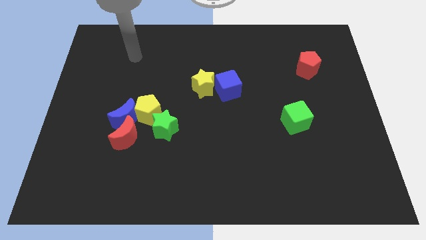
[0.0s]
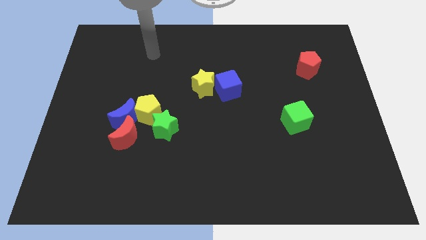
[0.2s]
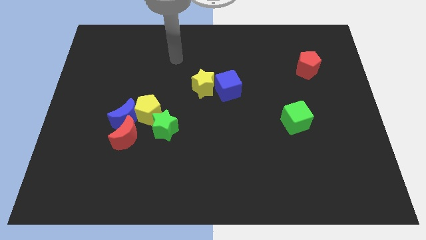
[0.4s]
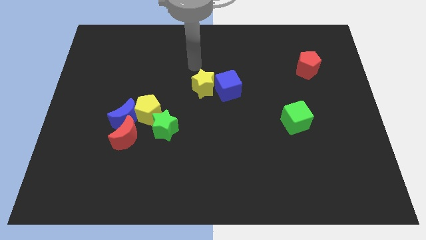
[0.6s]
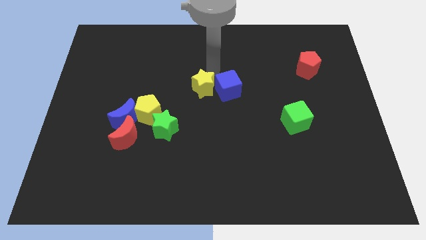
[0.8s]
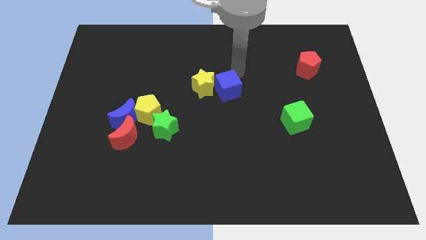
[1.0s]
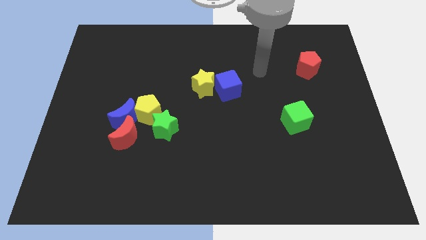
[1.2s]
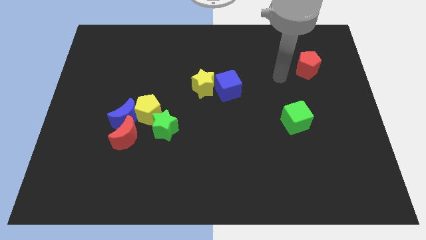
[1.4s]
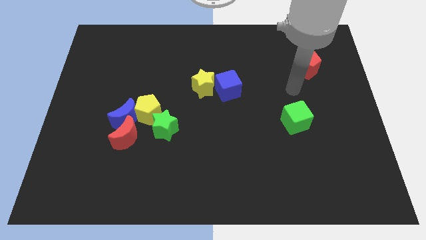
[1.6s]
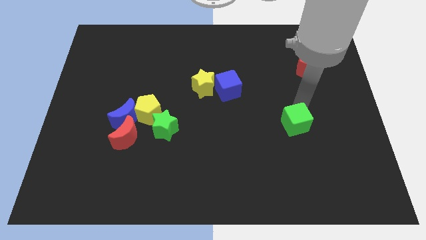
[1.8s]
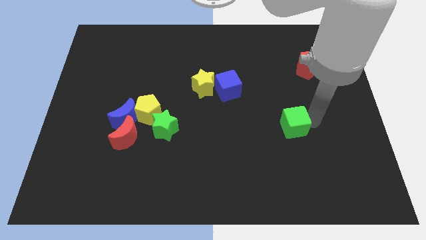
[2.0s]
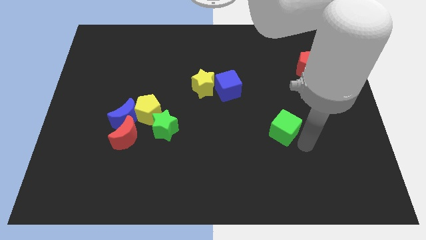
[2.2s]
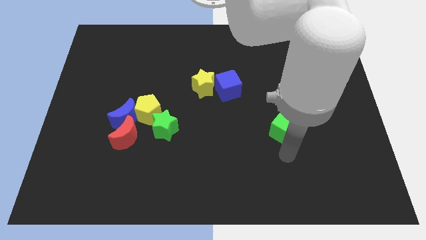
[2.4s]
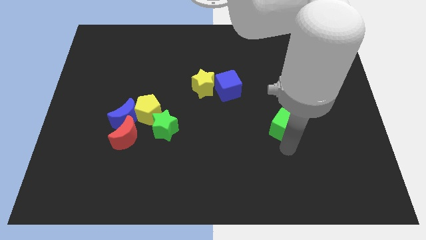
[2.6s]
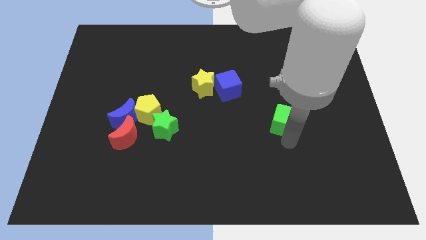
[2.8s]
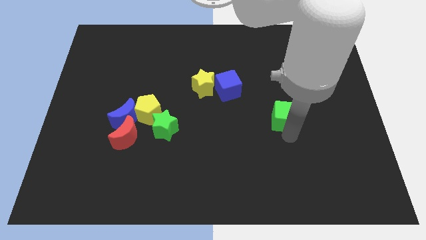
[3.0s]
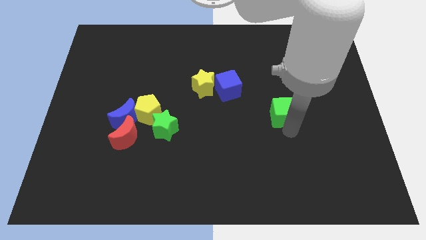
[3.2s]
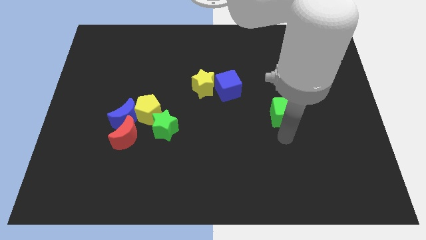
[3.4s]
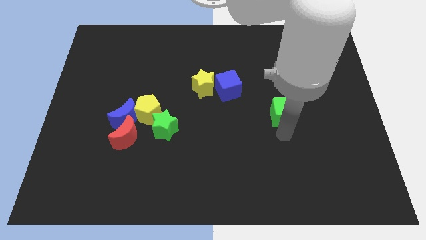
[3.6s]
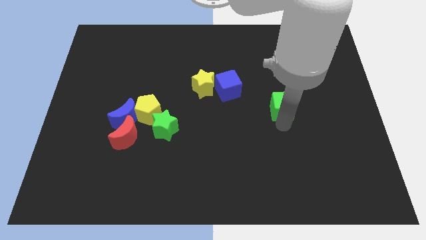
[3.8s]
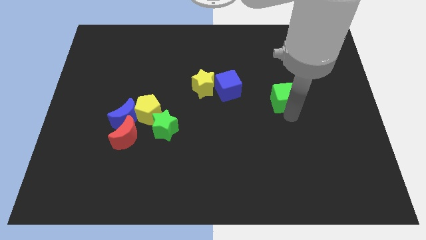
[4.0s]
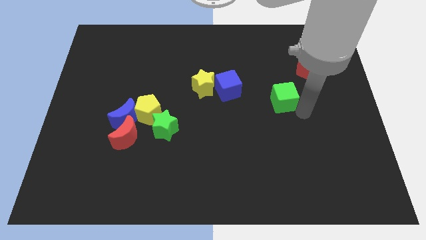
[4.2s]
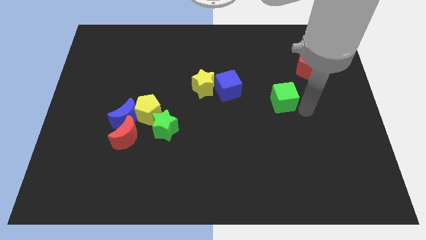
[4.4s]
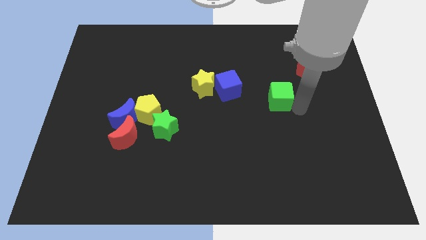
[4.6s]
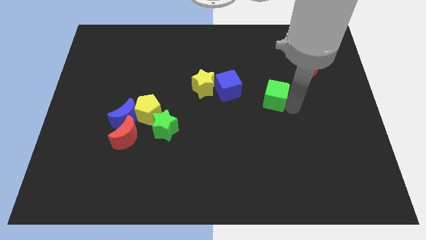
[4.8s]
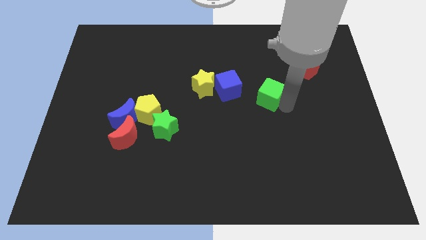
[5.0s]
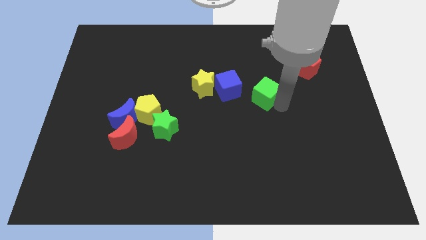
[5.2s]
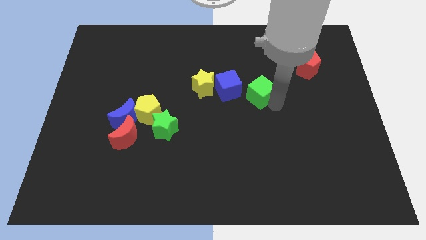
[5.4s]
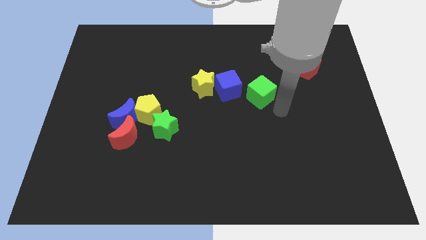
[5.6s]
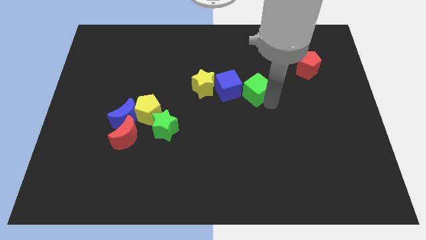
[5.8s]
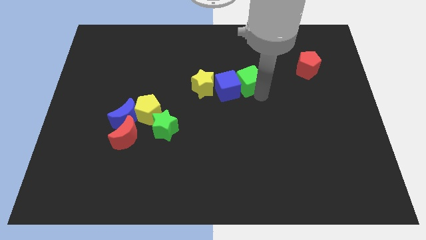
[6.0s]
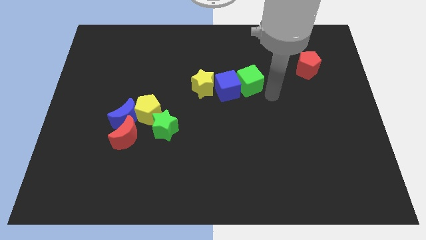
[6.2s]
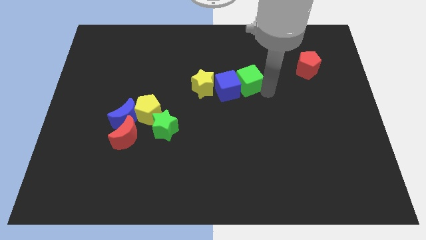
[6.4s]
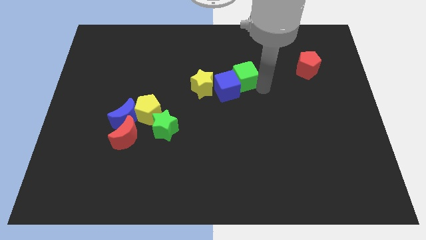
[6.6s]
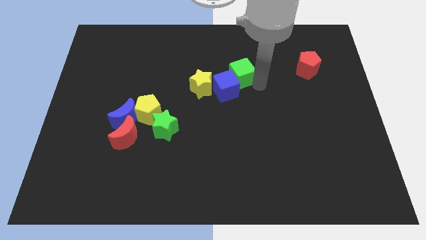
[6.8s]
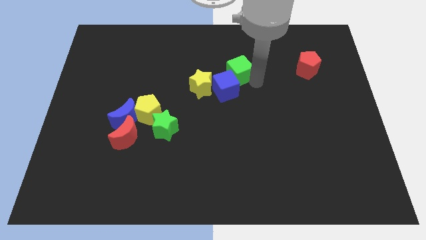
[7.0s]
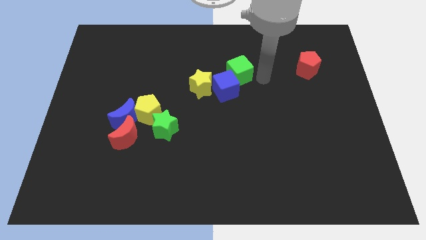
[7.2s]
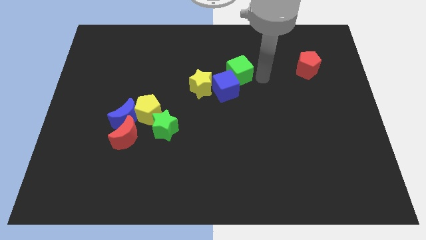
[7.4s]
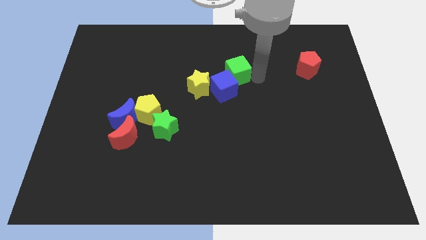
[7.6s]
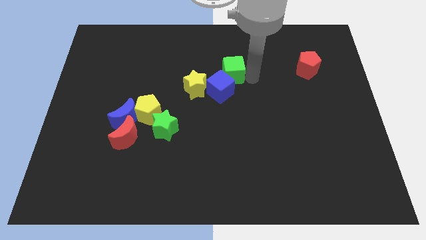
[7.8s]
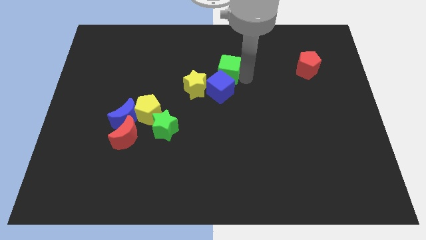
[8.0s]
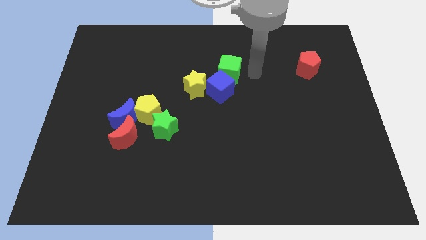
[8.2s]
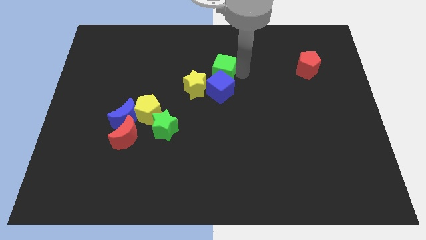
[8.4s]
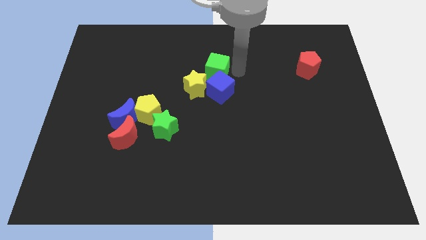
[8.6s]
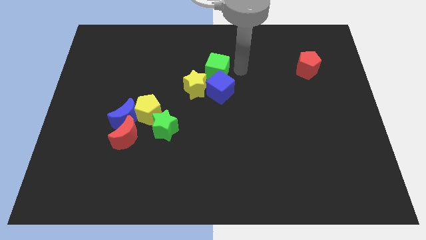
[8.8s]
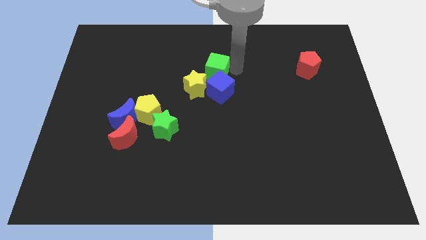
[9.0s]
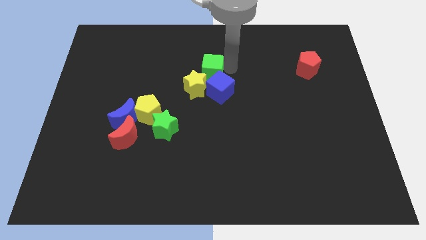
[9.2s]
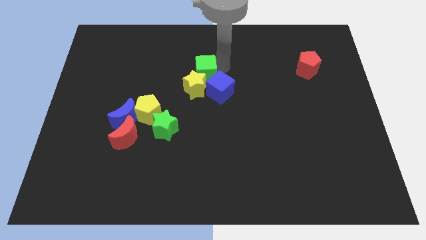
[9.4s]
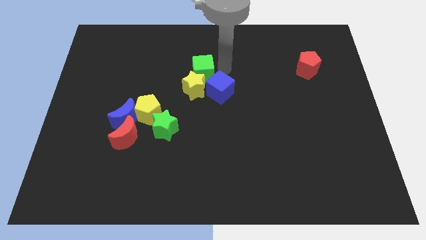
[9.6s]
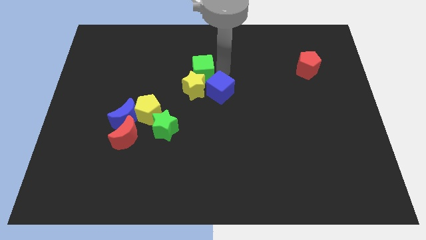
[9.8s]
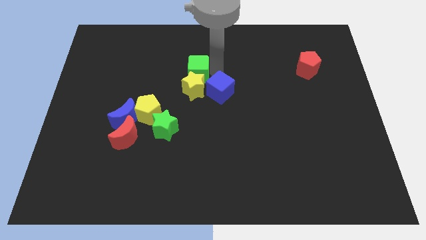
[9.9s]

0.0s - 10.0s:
put the green cube diagonally up and to the left of the yellow star

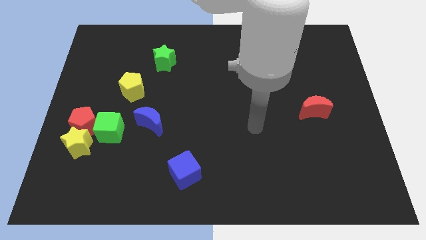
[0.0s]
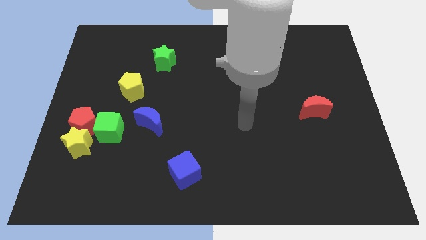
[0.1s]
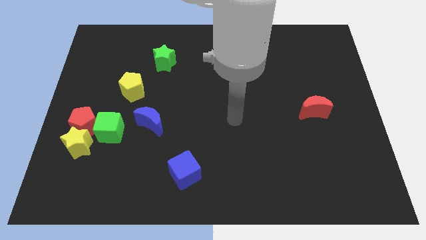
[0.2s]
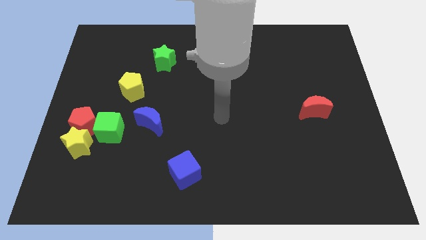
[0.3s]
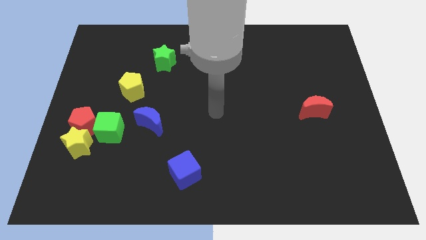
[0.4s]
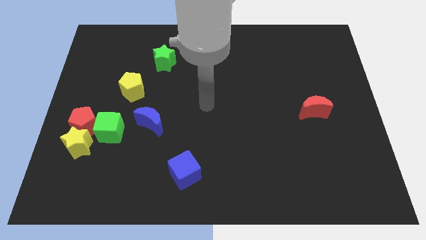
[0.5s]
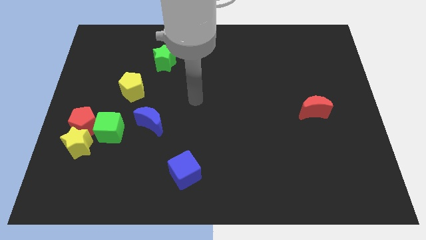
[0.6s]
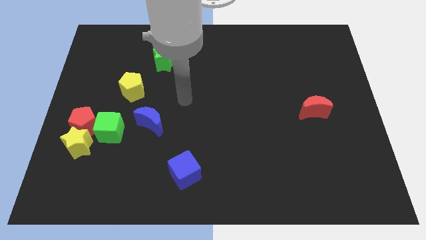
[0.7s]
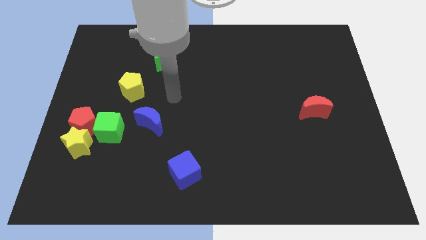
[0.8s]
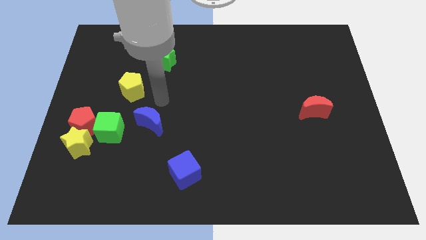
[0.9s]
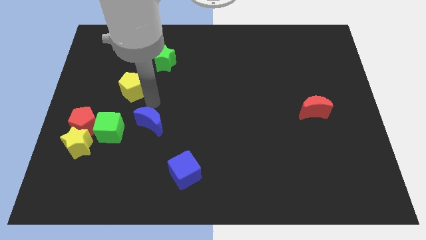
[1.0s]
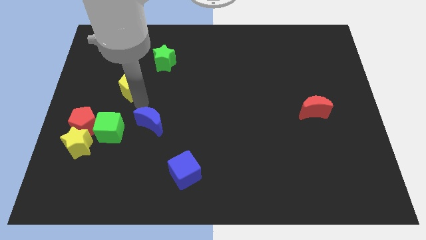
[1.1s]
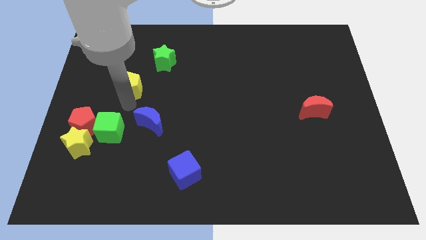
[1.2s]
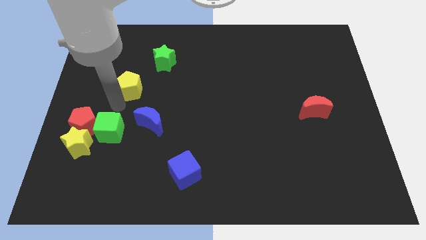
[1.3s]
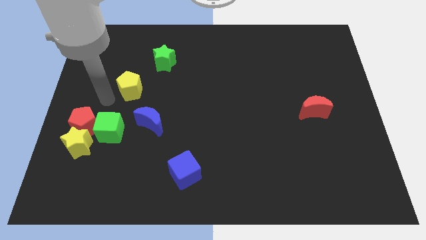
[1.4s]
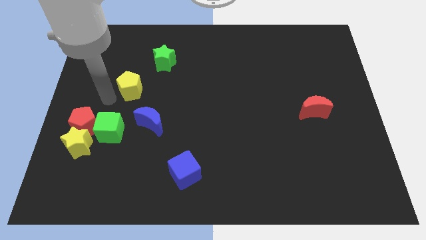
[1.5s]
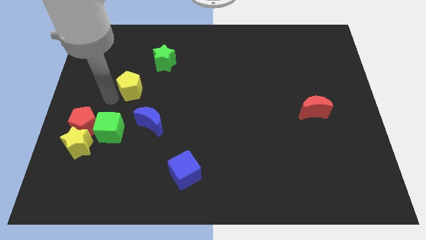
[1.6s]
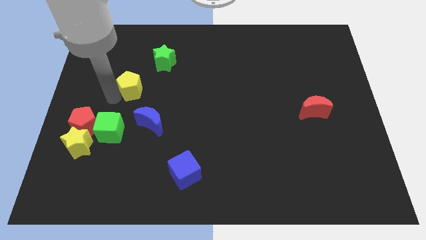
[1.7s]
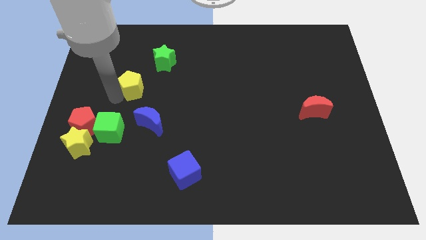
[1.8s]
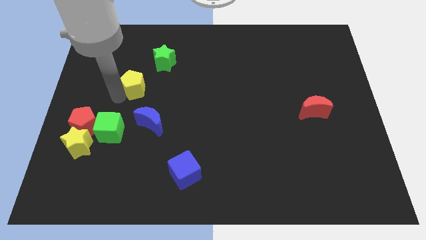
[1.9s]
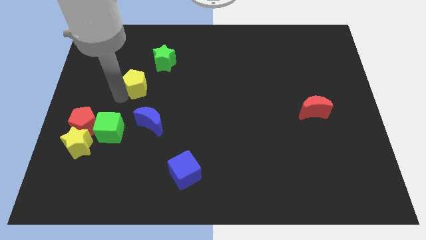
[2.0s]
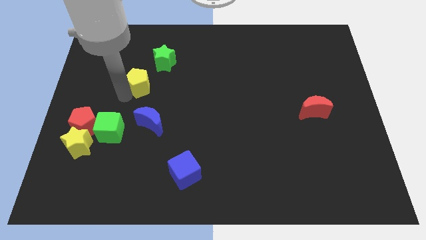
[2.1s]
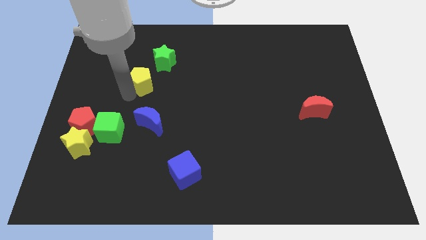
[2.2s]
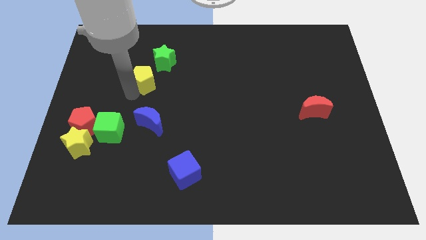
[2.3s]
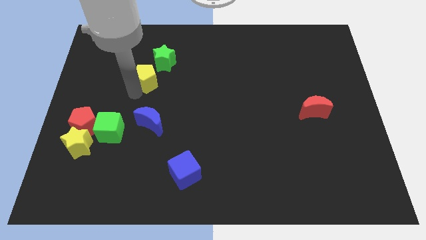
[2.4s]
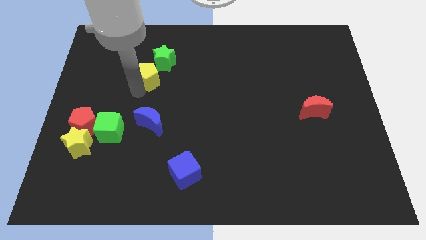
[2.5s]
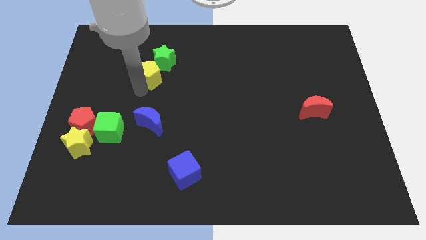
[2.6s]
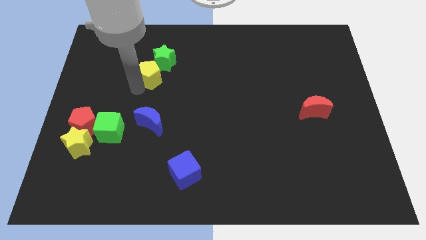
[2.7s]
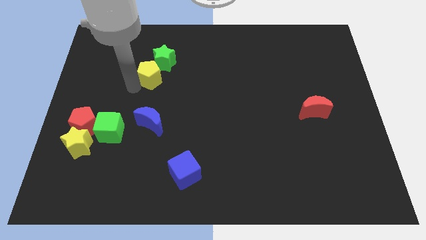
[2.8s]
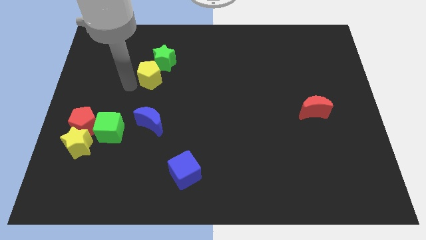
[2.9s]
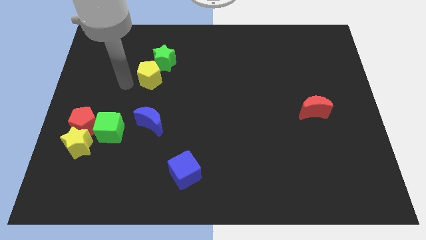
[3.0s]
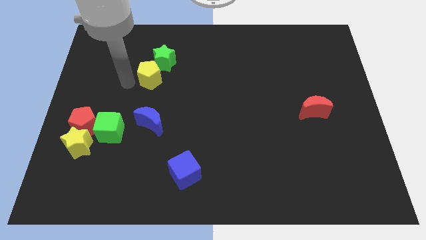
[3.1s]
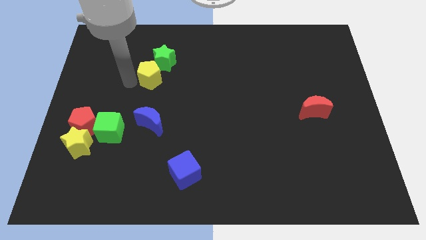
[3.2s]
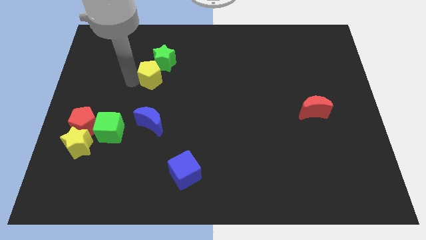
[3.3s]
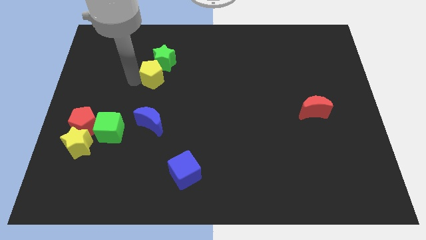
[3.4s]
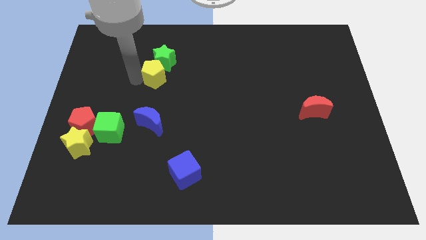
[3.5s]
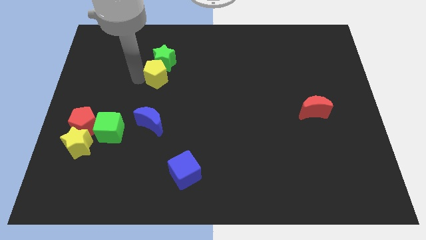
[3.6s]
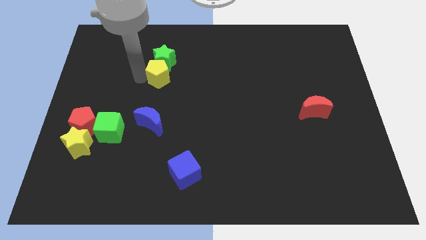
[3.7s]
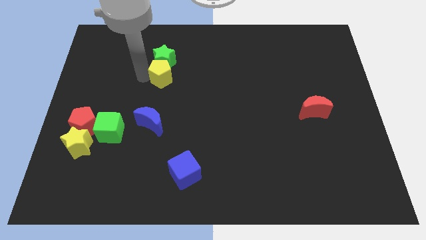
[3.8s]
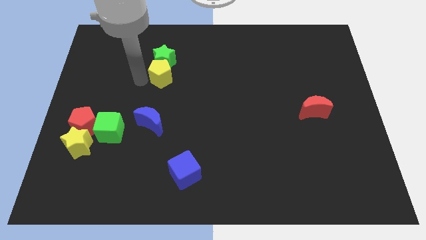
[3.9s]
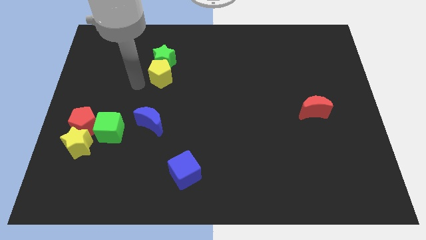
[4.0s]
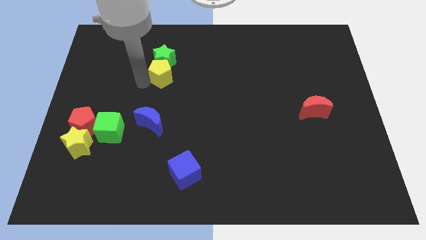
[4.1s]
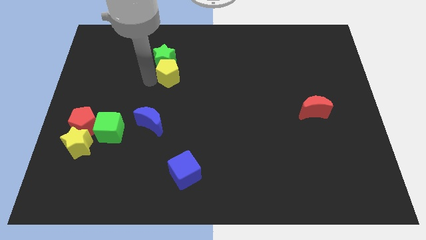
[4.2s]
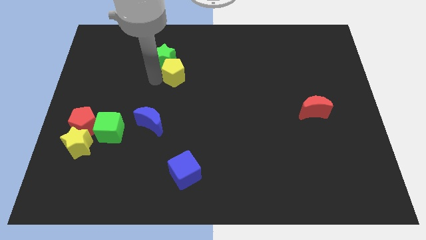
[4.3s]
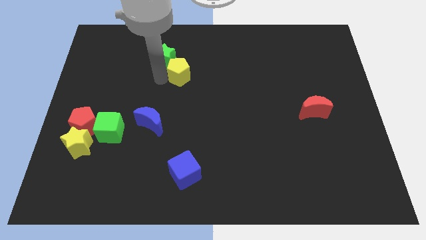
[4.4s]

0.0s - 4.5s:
slide the yellow pentagon just right of the green star
